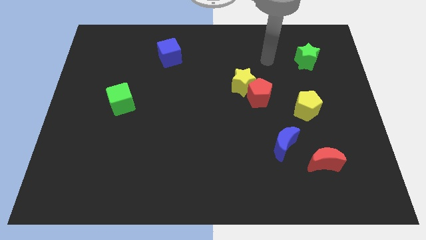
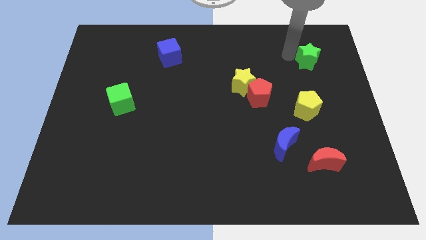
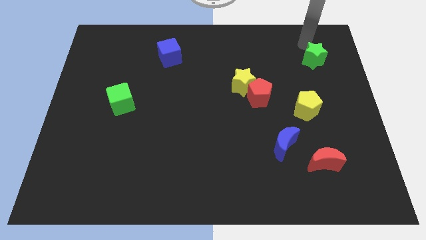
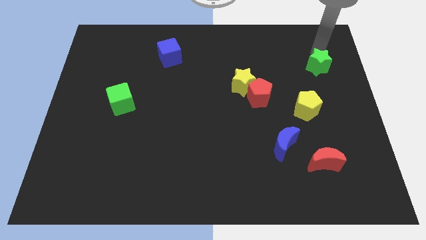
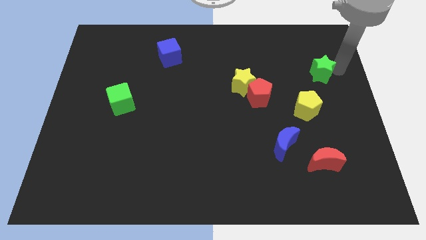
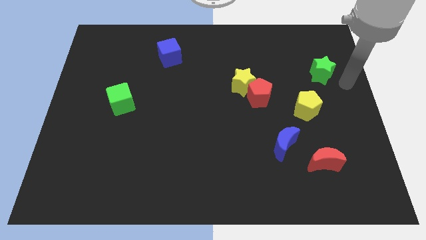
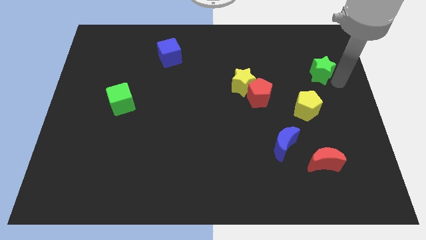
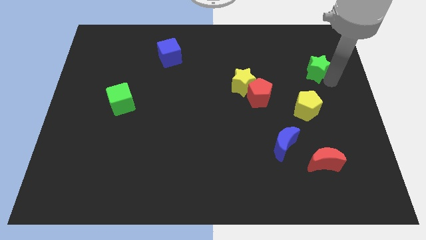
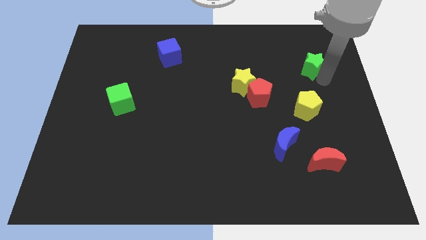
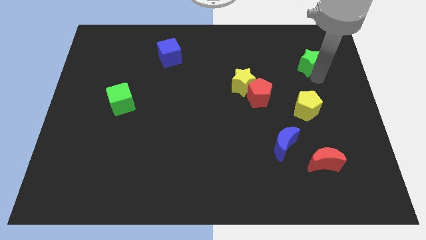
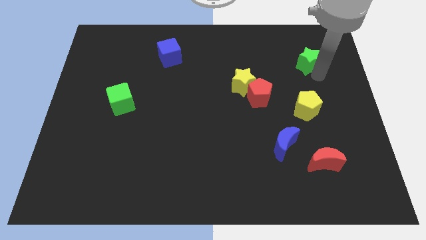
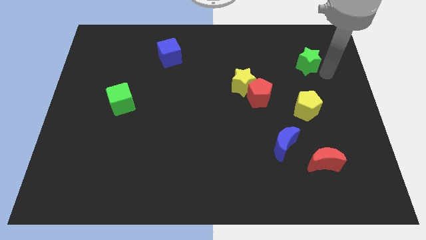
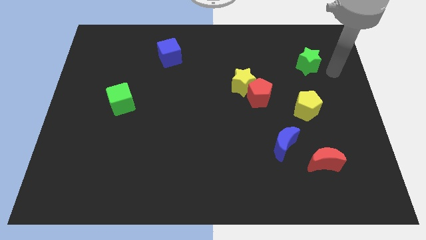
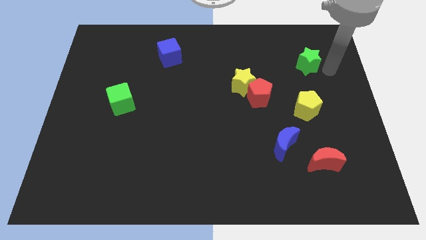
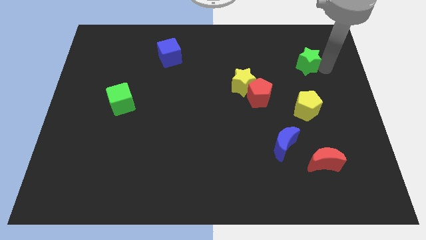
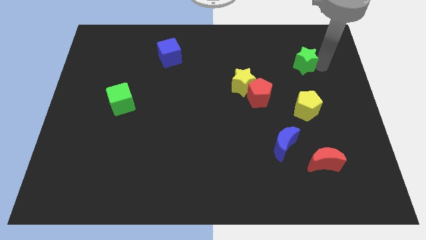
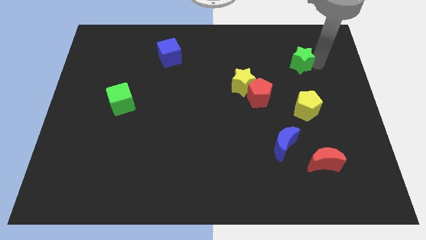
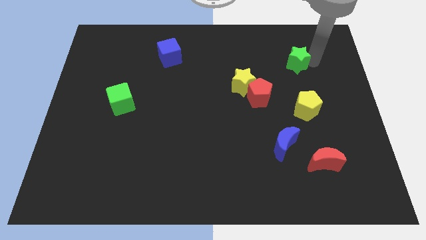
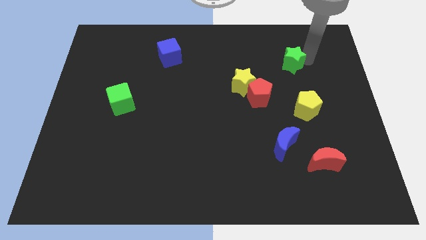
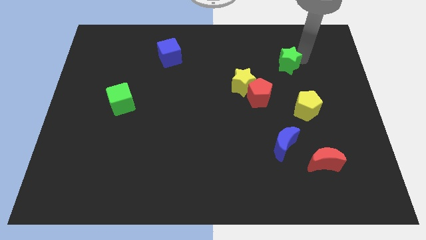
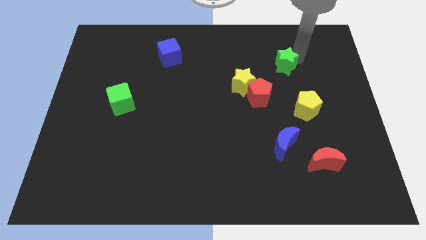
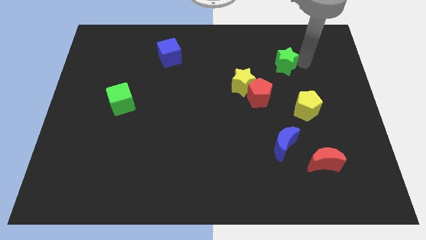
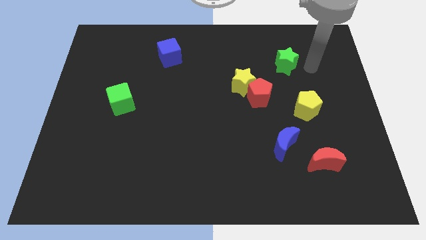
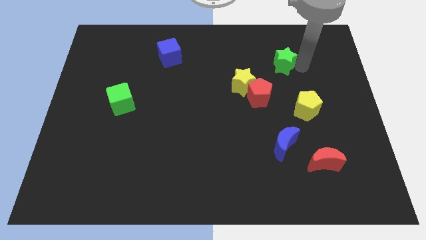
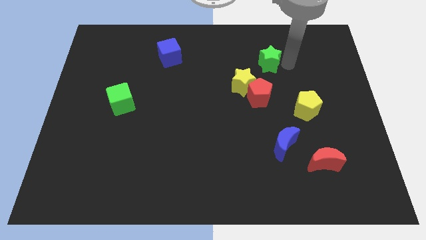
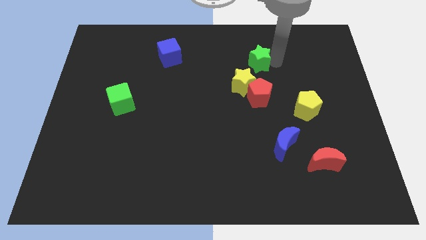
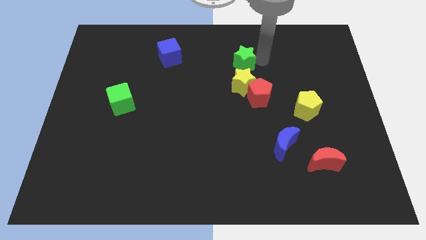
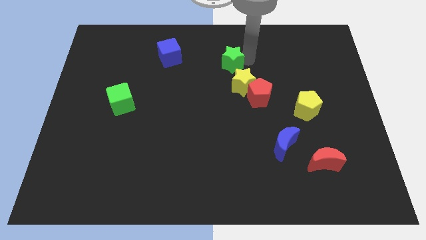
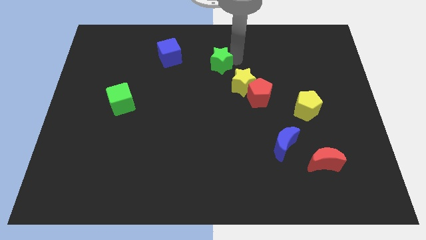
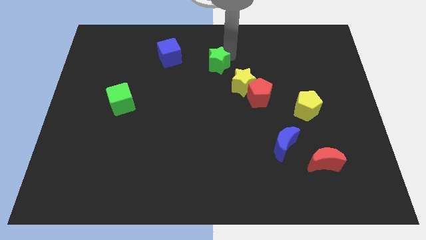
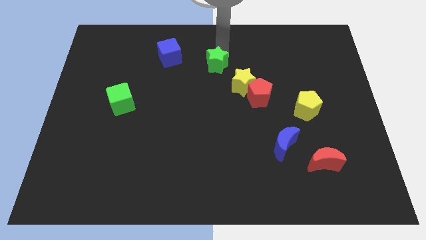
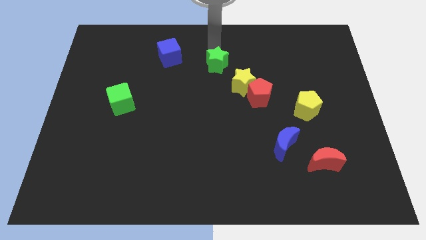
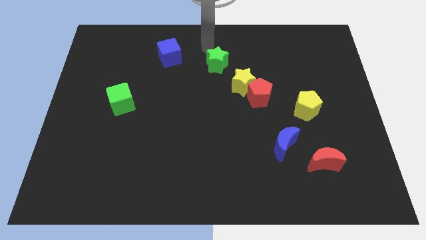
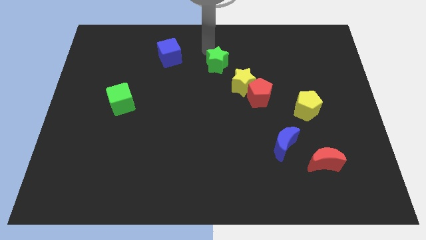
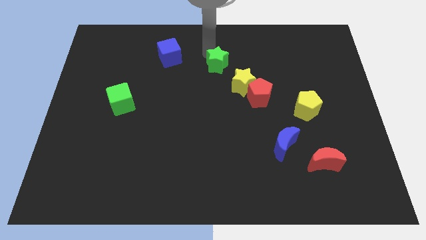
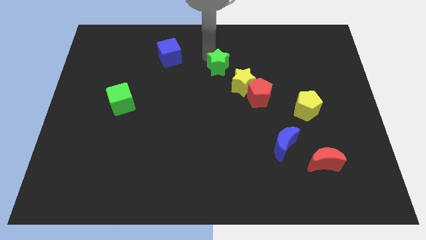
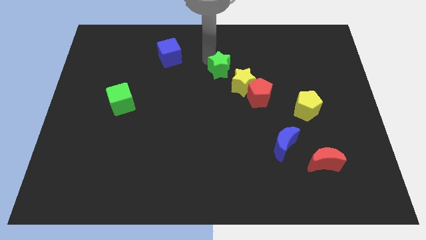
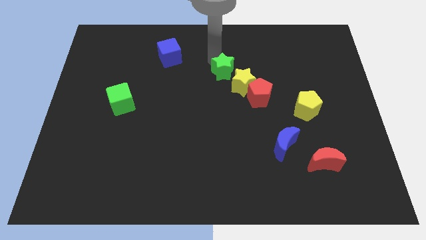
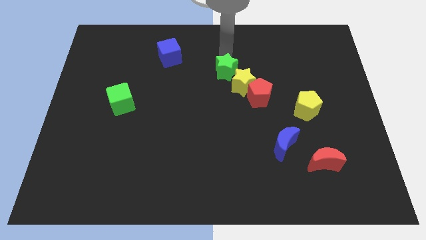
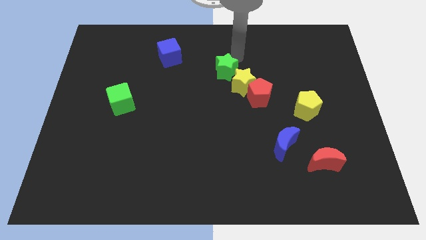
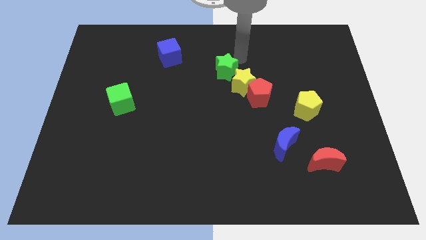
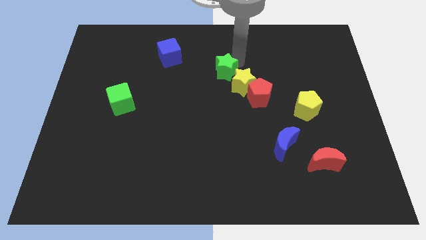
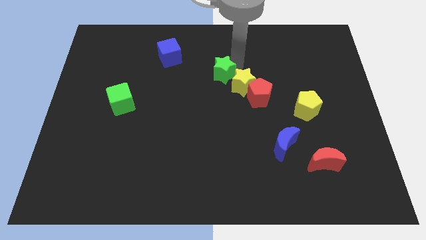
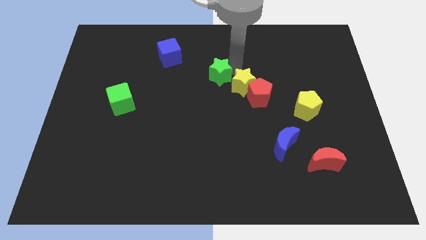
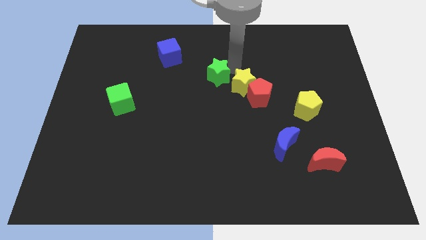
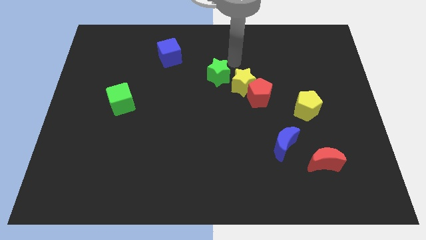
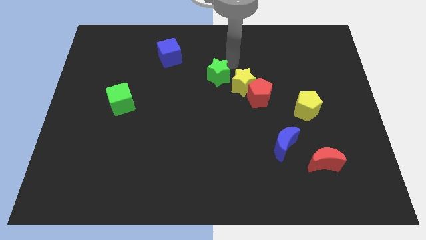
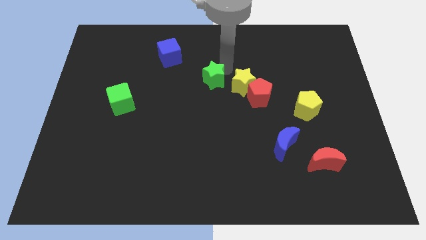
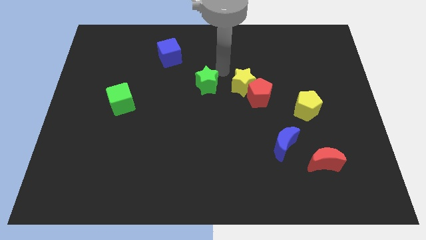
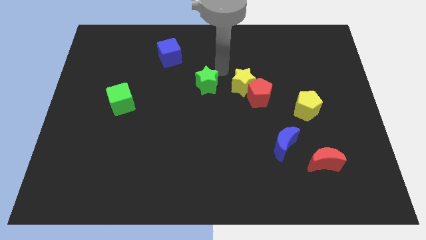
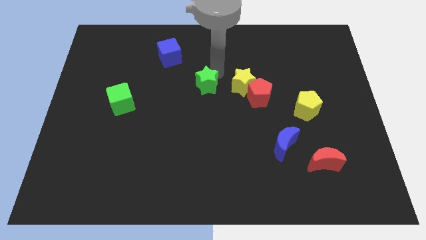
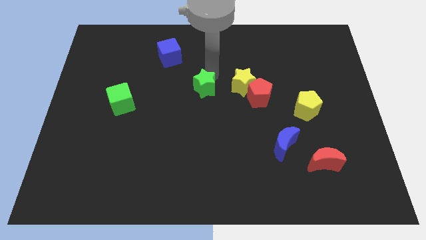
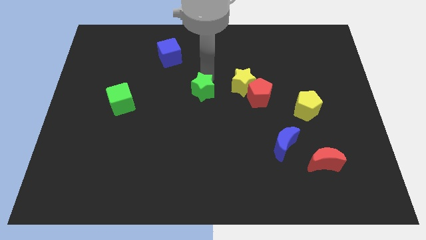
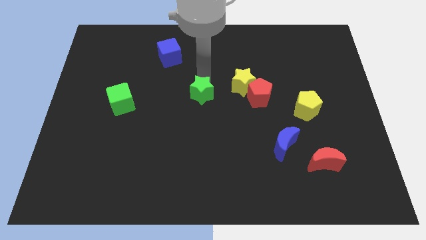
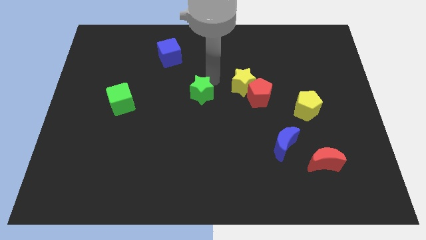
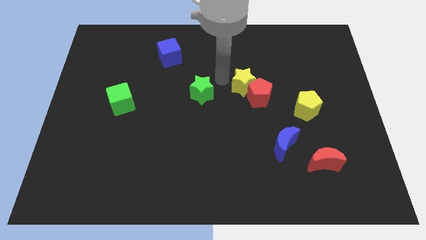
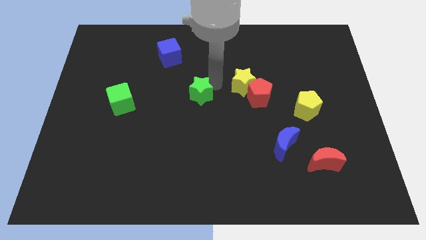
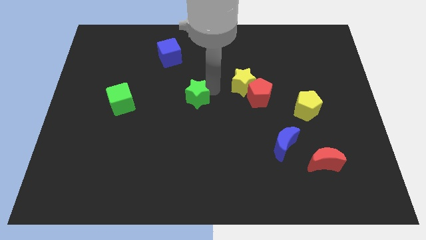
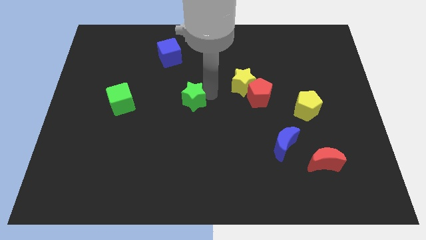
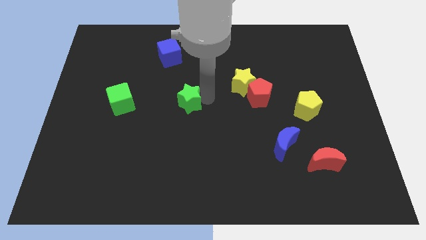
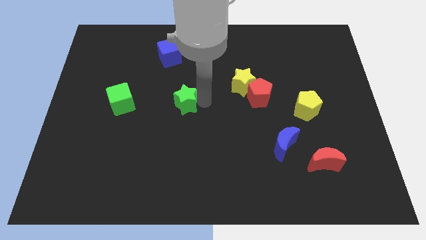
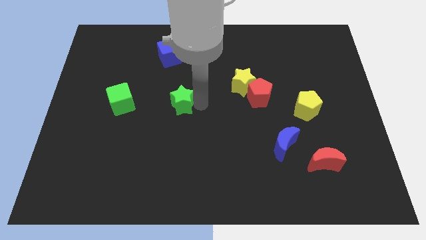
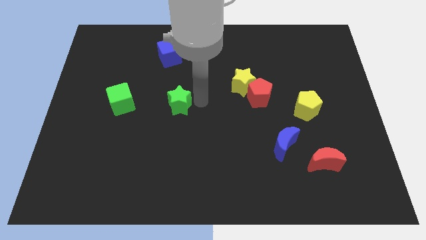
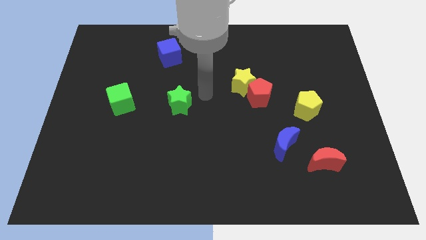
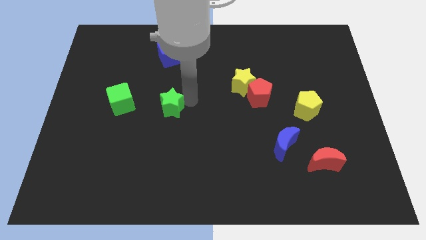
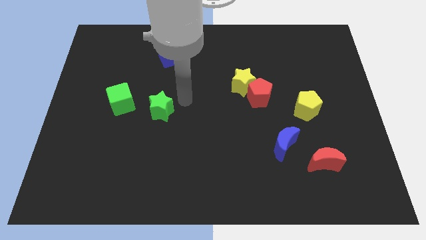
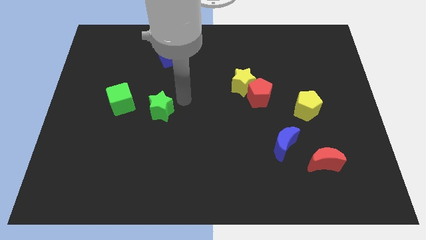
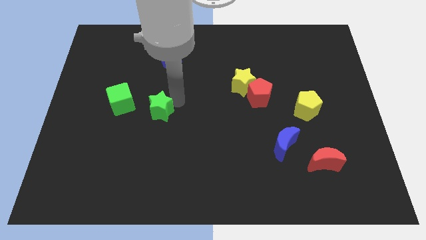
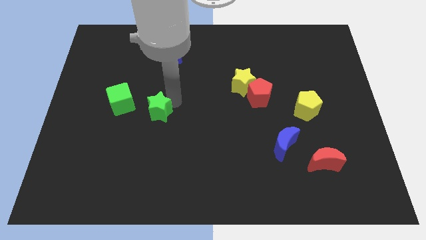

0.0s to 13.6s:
push the green star diagonally down and to the right of the green cube
